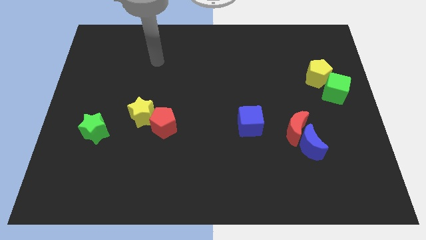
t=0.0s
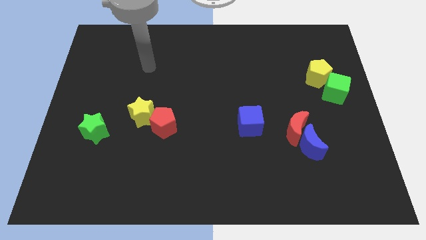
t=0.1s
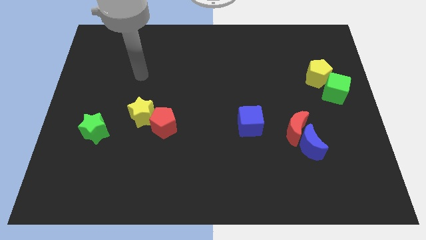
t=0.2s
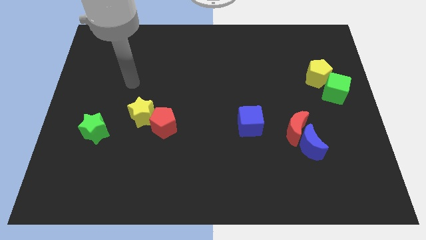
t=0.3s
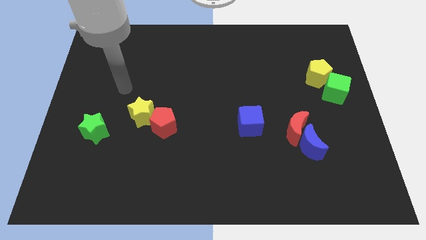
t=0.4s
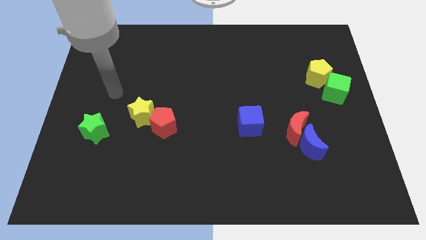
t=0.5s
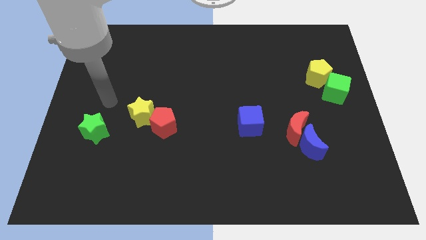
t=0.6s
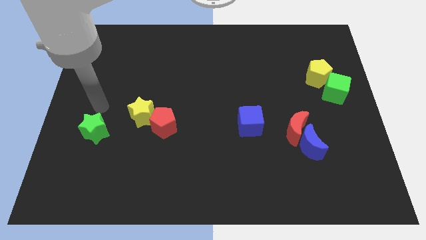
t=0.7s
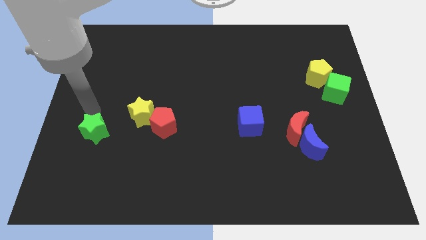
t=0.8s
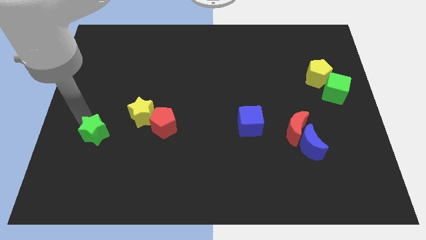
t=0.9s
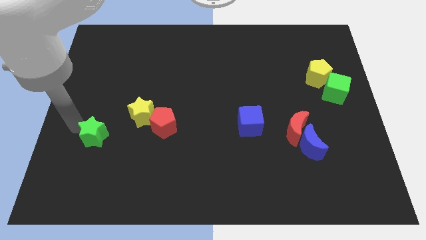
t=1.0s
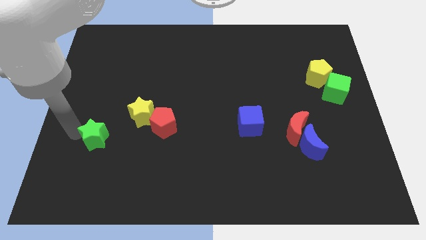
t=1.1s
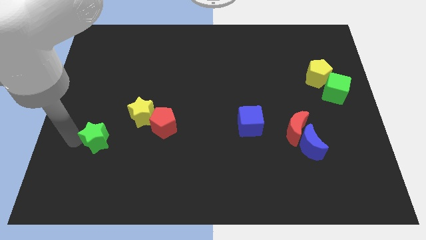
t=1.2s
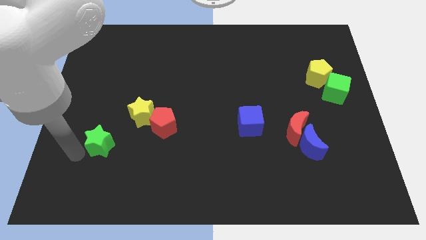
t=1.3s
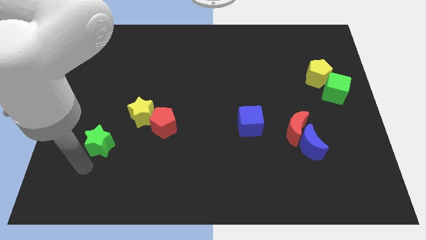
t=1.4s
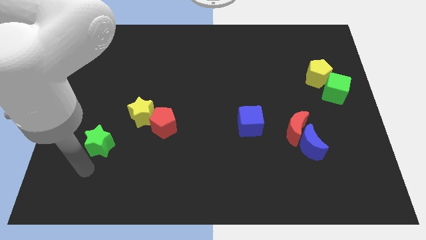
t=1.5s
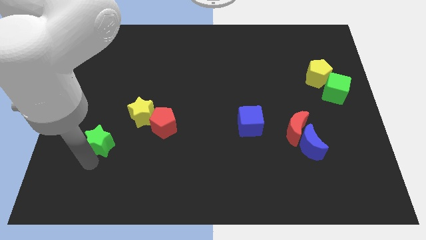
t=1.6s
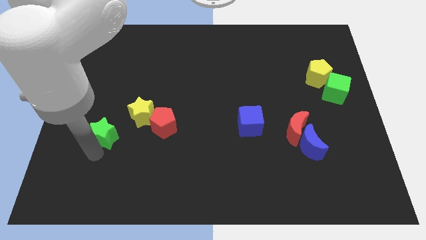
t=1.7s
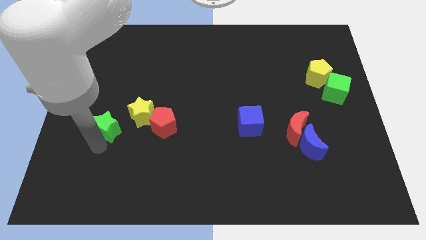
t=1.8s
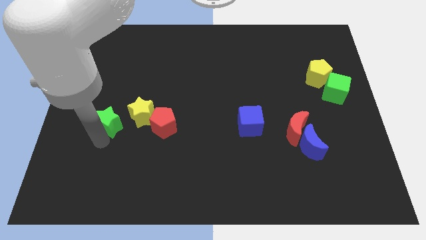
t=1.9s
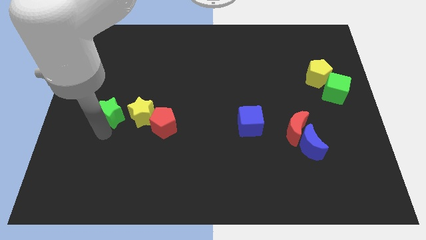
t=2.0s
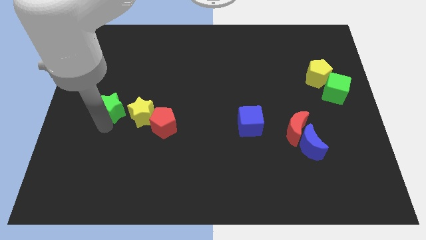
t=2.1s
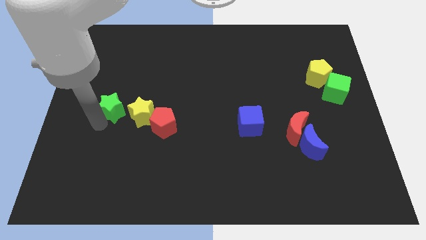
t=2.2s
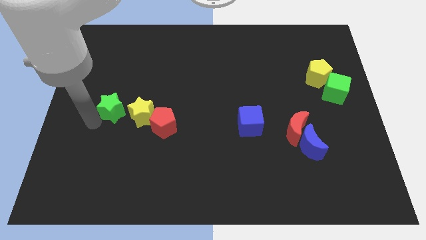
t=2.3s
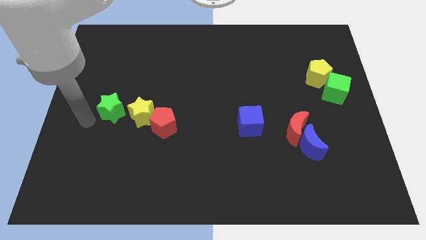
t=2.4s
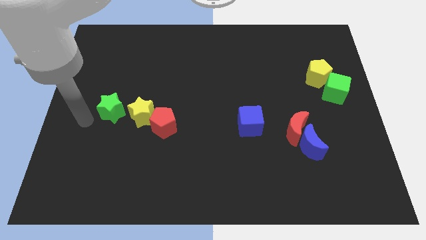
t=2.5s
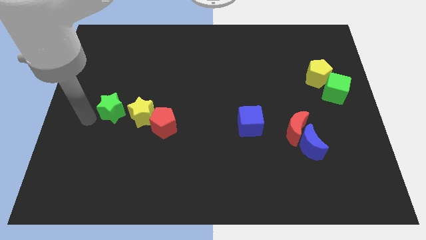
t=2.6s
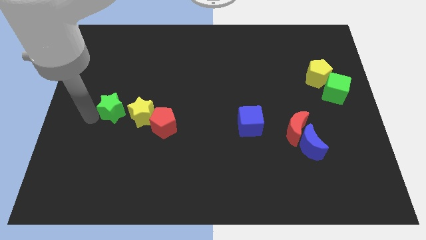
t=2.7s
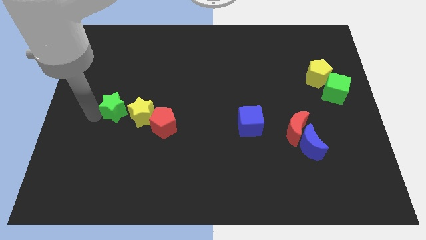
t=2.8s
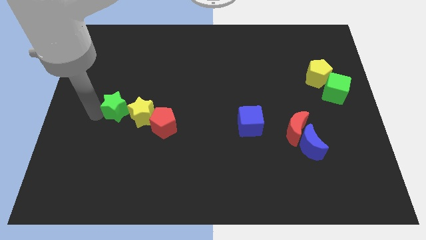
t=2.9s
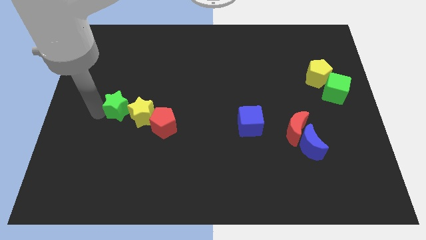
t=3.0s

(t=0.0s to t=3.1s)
slightly push the green star up and to the right diagonally

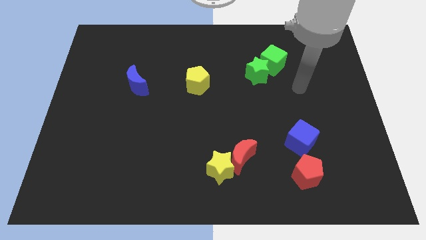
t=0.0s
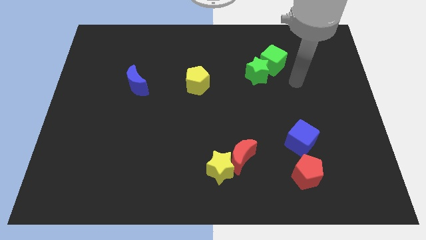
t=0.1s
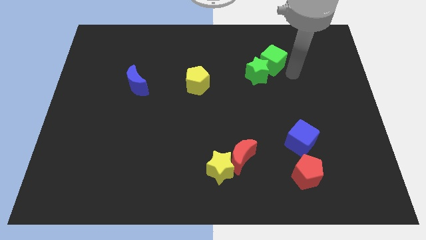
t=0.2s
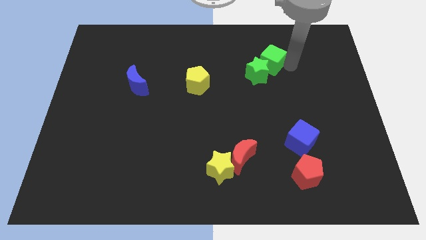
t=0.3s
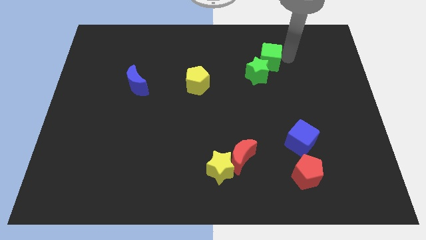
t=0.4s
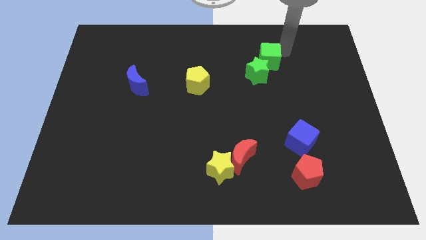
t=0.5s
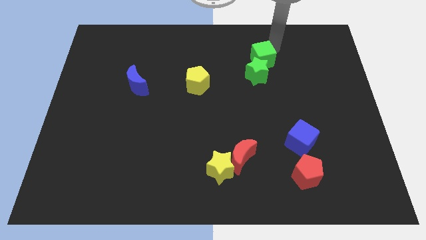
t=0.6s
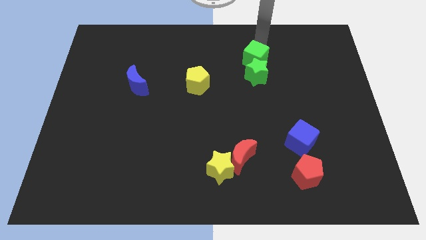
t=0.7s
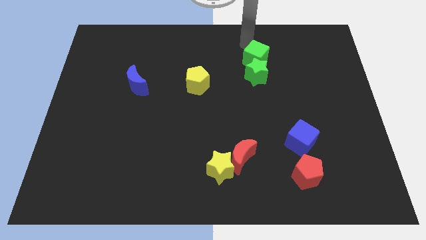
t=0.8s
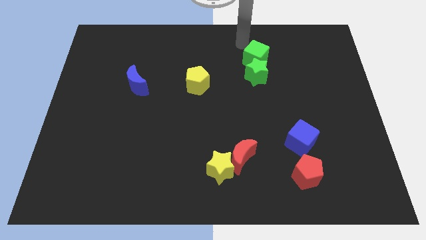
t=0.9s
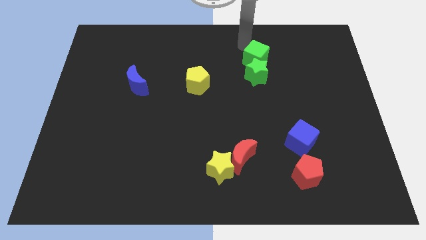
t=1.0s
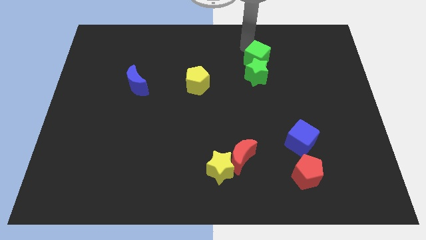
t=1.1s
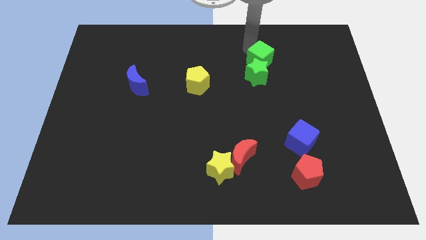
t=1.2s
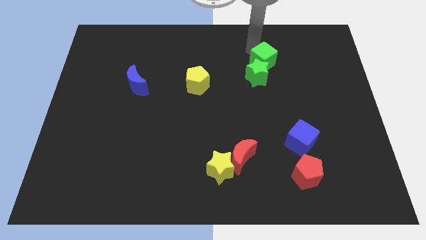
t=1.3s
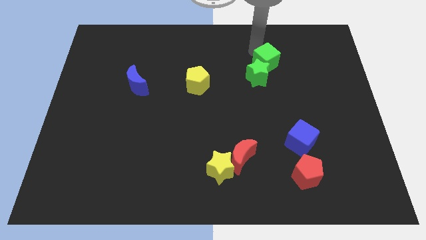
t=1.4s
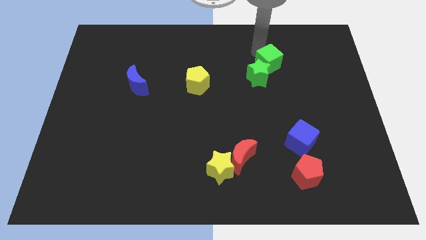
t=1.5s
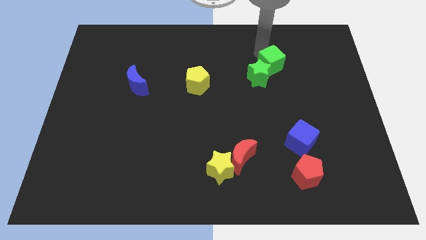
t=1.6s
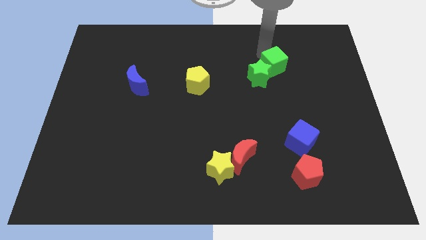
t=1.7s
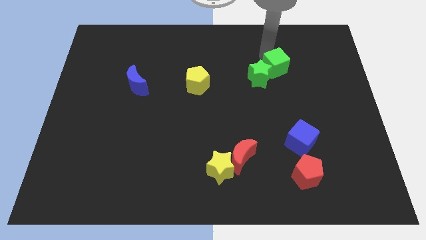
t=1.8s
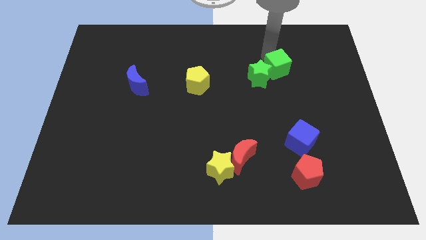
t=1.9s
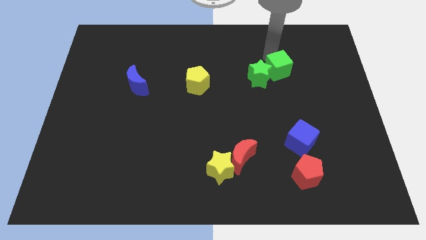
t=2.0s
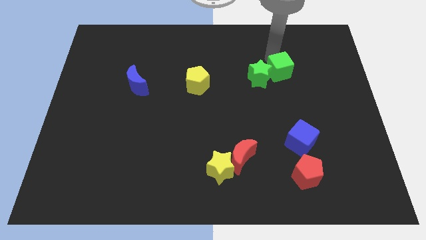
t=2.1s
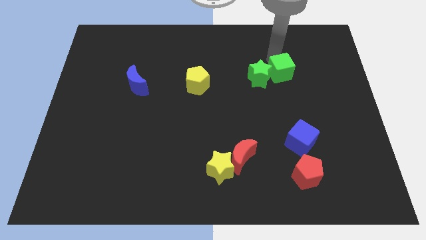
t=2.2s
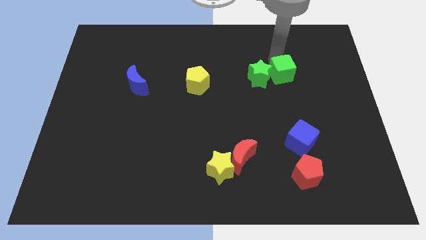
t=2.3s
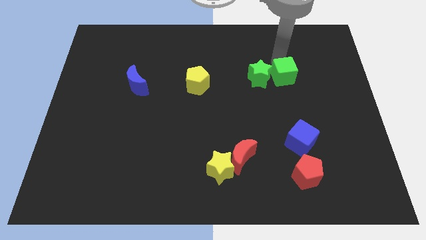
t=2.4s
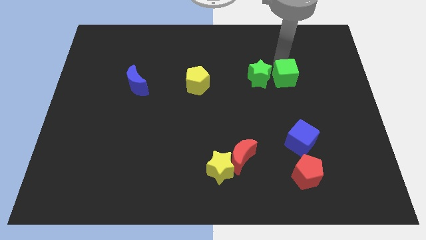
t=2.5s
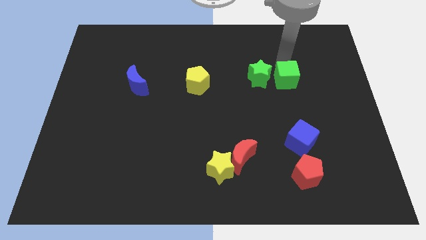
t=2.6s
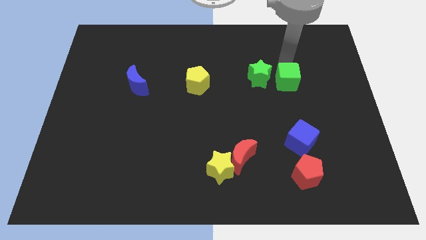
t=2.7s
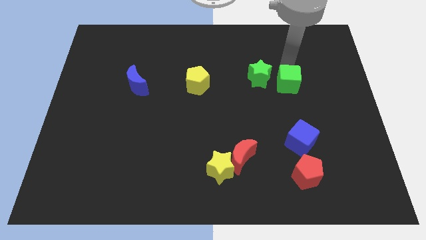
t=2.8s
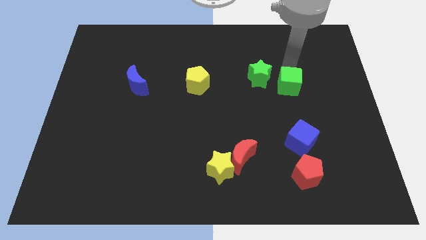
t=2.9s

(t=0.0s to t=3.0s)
push the green cube downwards somewhat

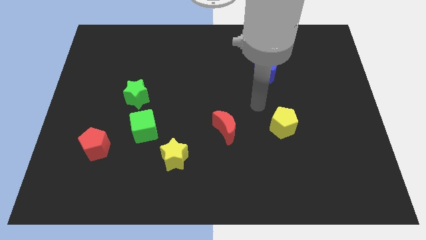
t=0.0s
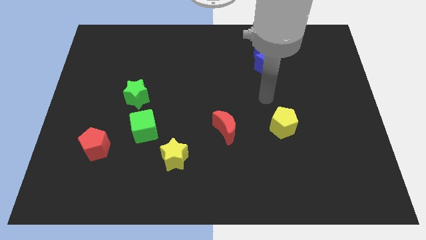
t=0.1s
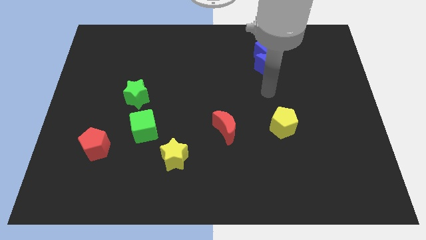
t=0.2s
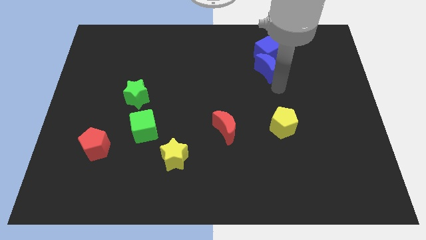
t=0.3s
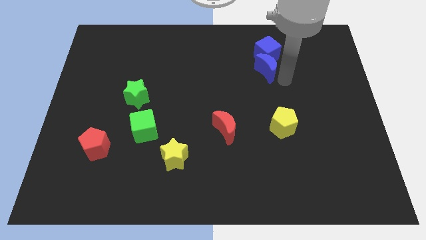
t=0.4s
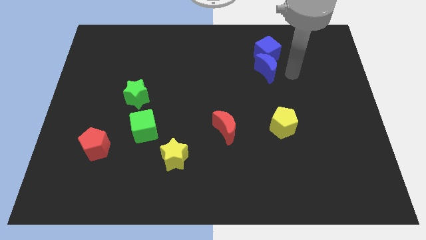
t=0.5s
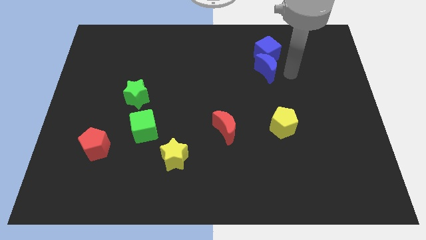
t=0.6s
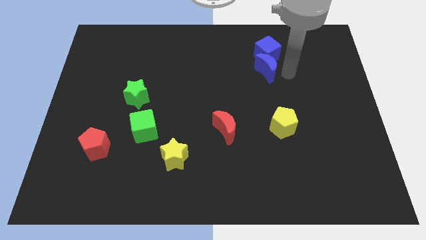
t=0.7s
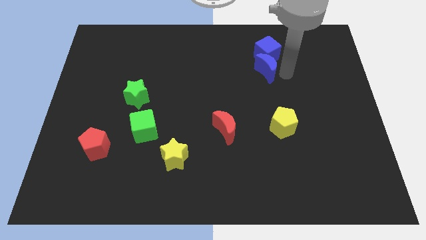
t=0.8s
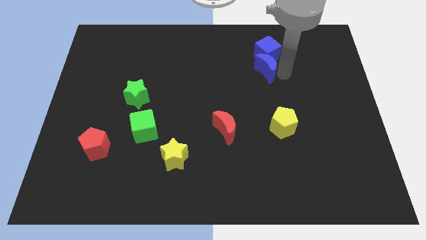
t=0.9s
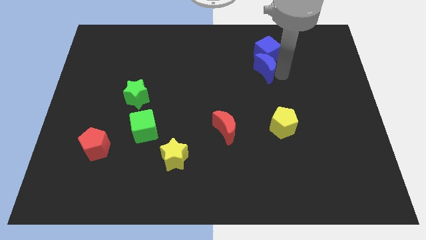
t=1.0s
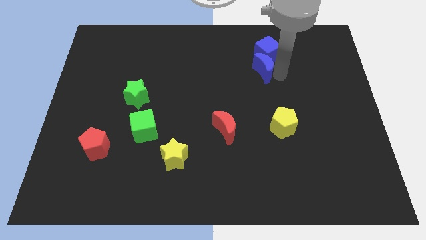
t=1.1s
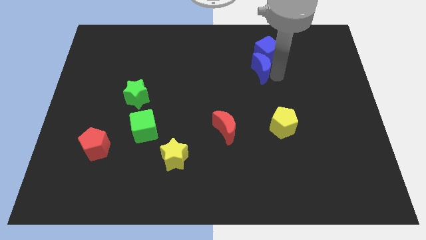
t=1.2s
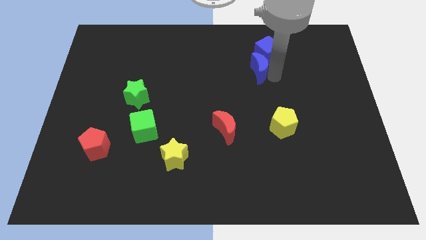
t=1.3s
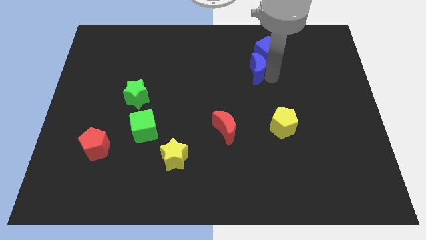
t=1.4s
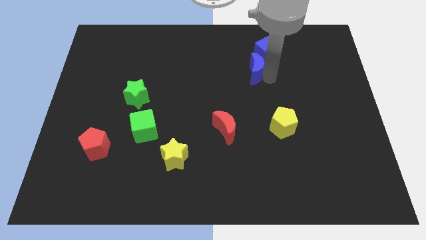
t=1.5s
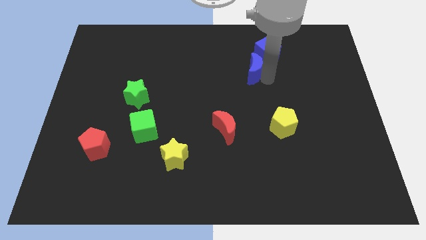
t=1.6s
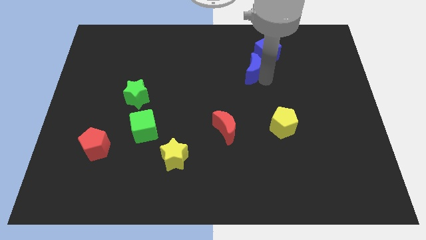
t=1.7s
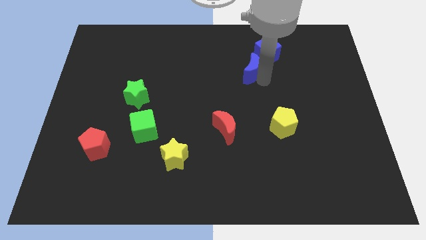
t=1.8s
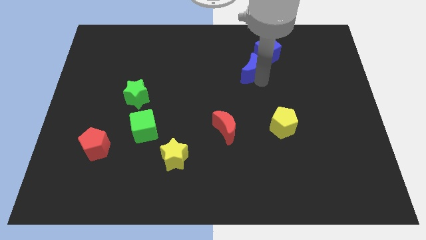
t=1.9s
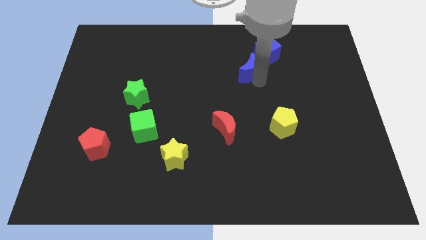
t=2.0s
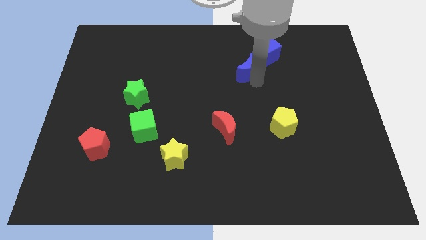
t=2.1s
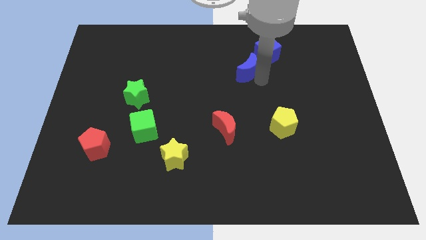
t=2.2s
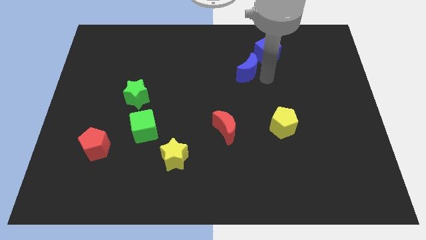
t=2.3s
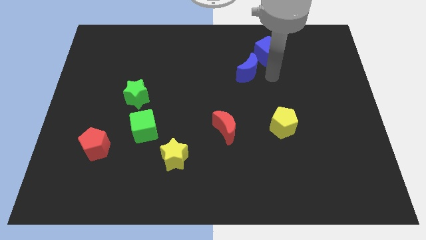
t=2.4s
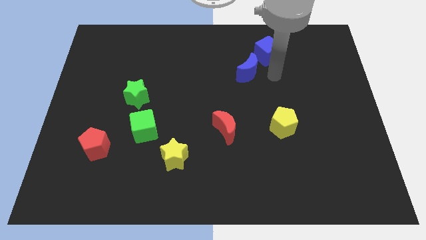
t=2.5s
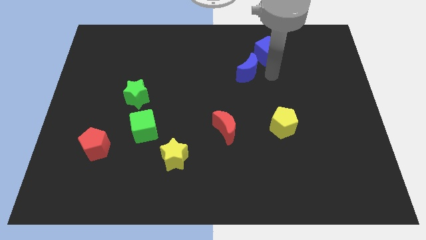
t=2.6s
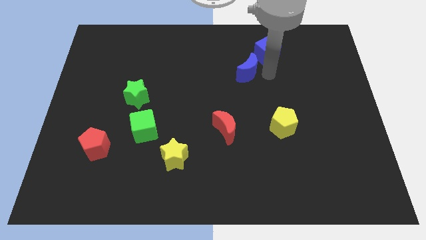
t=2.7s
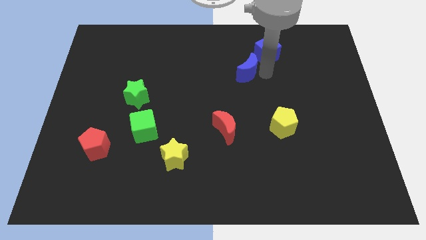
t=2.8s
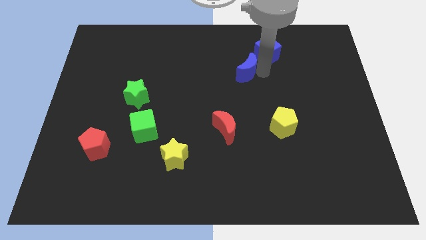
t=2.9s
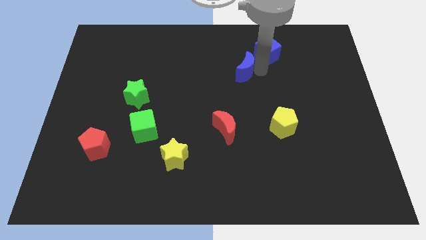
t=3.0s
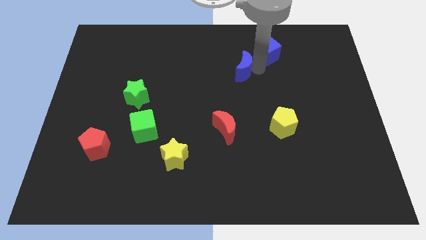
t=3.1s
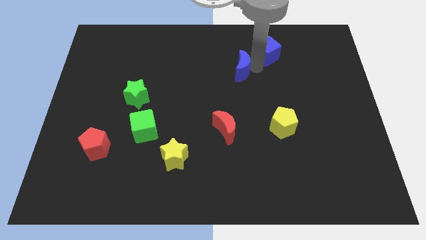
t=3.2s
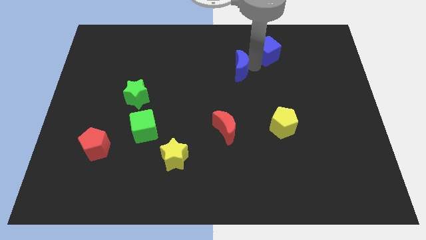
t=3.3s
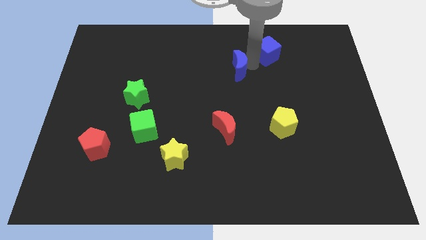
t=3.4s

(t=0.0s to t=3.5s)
slide the blue moon somewhat left
